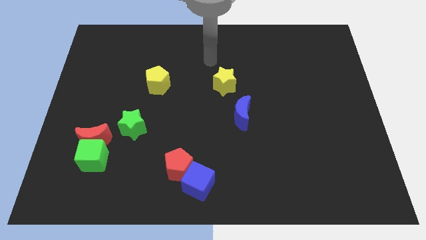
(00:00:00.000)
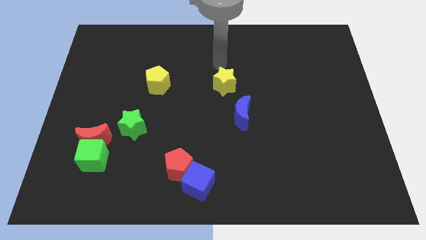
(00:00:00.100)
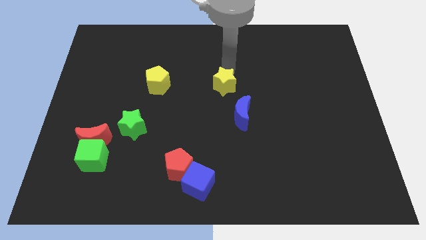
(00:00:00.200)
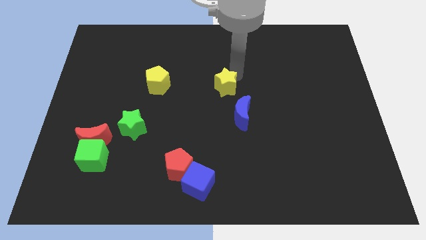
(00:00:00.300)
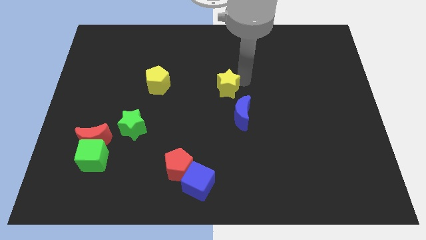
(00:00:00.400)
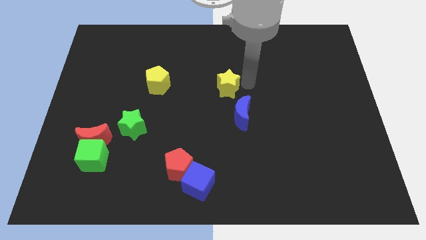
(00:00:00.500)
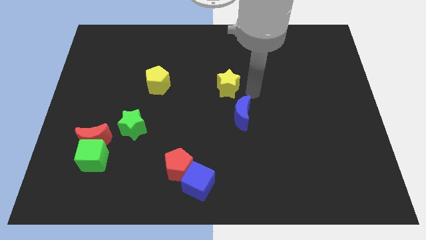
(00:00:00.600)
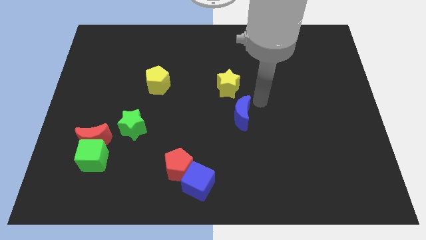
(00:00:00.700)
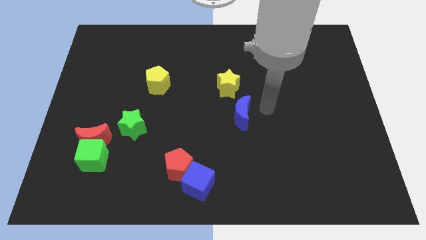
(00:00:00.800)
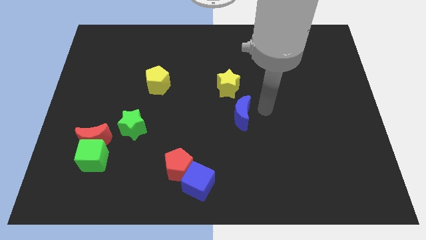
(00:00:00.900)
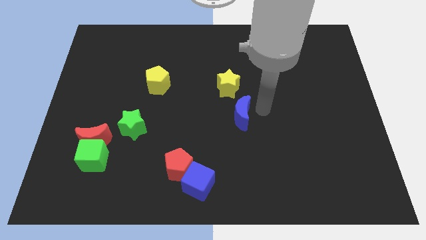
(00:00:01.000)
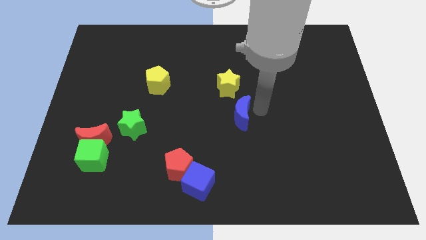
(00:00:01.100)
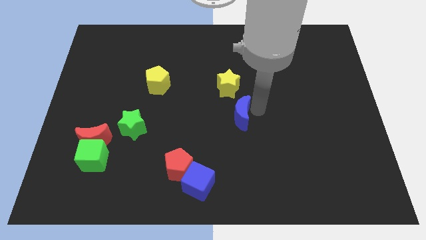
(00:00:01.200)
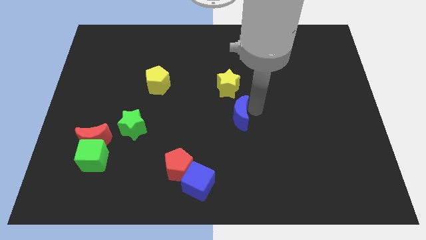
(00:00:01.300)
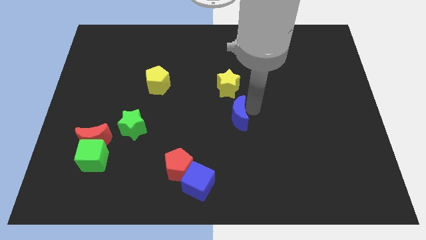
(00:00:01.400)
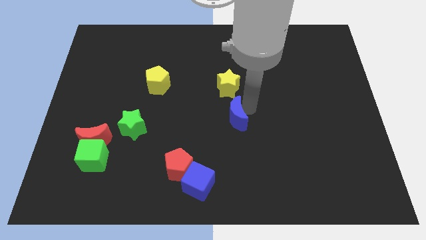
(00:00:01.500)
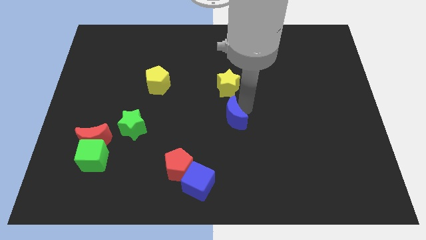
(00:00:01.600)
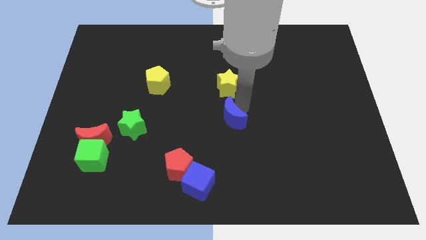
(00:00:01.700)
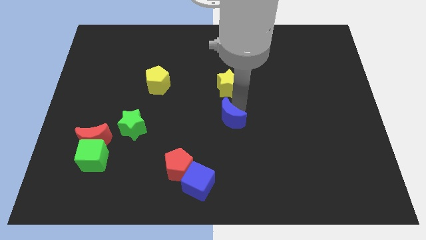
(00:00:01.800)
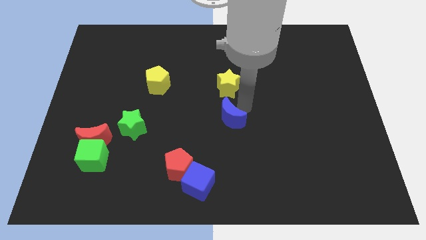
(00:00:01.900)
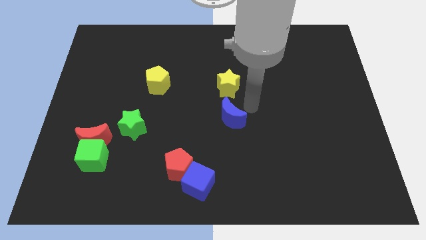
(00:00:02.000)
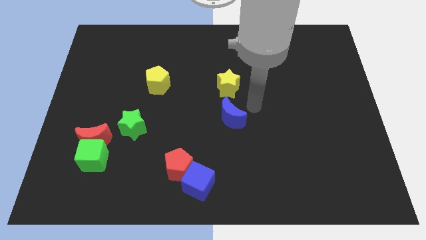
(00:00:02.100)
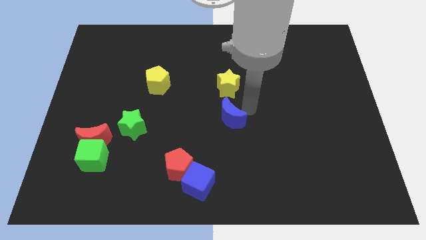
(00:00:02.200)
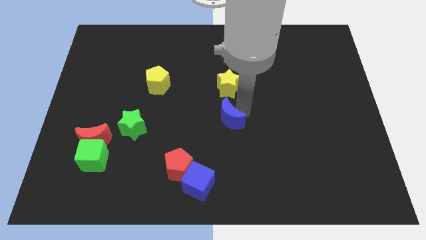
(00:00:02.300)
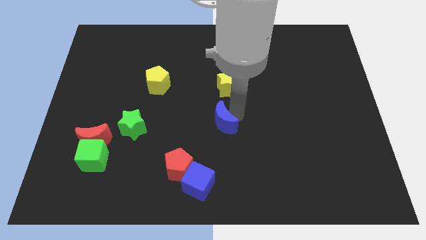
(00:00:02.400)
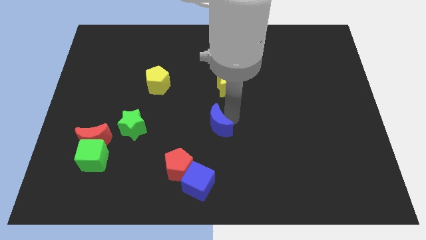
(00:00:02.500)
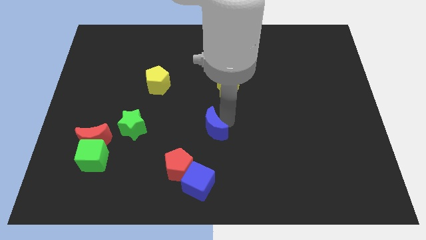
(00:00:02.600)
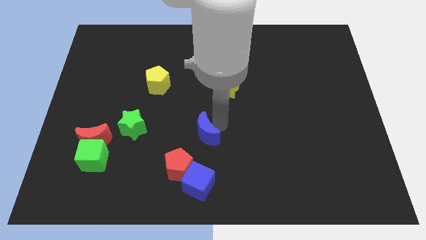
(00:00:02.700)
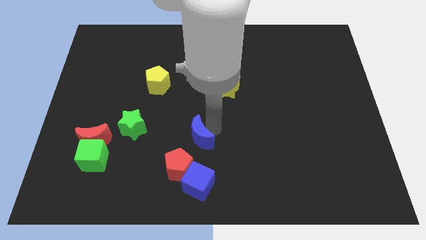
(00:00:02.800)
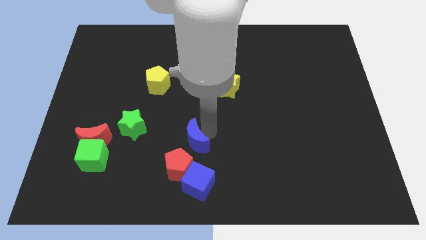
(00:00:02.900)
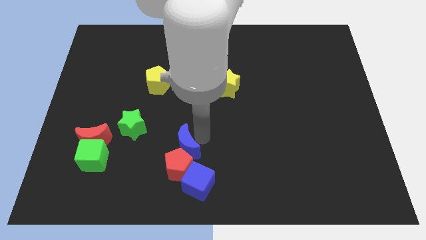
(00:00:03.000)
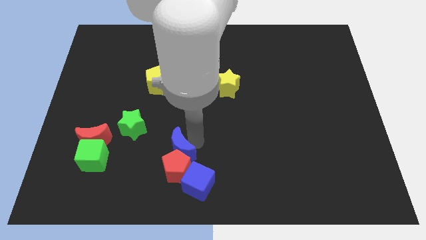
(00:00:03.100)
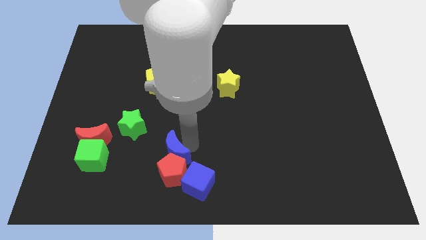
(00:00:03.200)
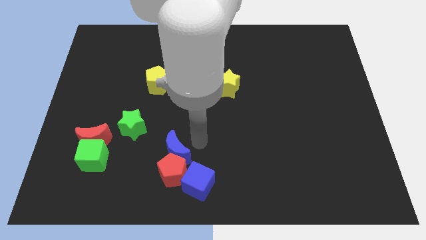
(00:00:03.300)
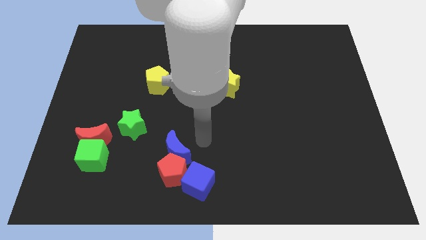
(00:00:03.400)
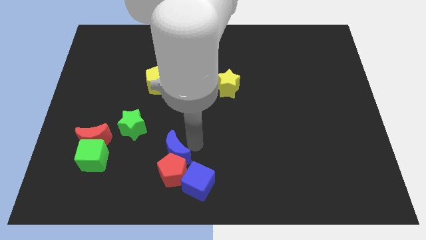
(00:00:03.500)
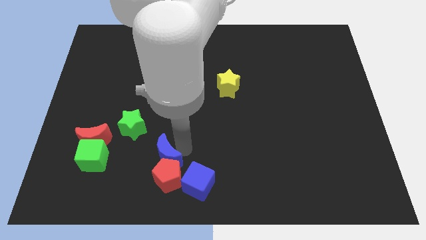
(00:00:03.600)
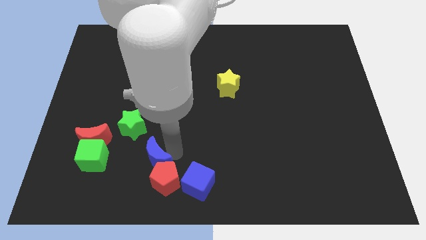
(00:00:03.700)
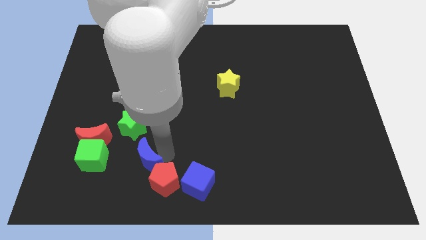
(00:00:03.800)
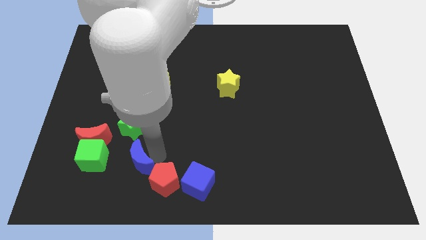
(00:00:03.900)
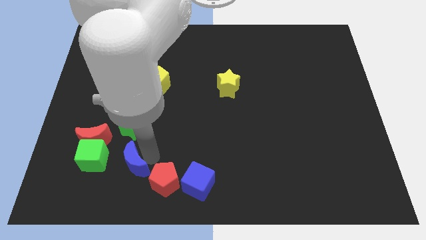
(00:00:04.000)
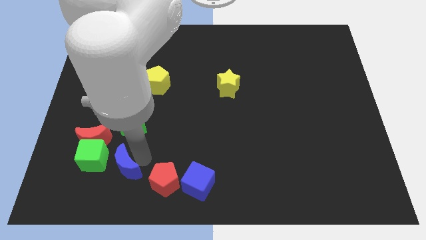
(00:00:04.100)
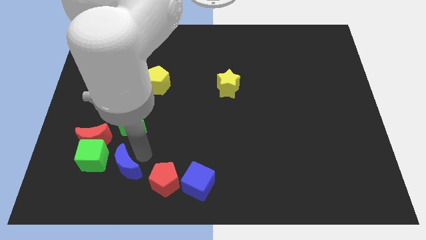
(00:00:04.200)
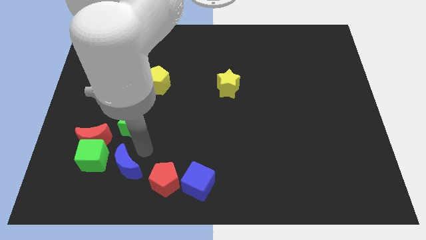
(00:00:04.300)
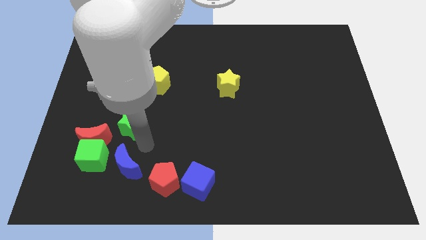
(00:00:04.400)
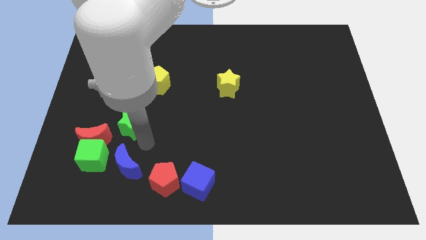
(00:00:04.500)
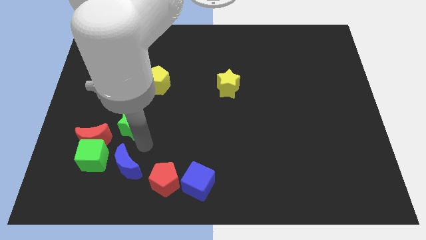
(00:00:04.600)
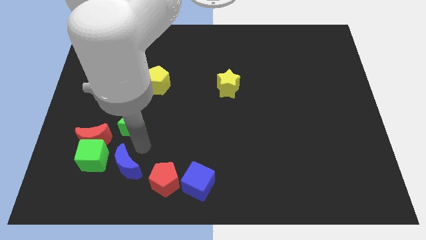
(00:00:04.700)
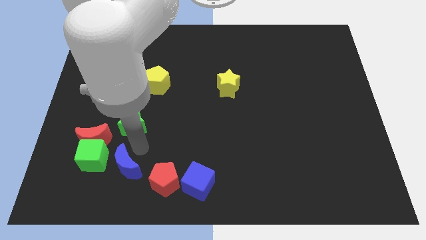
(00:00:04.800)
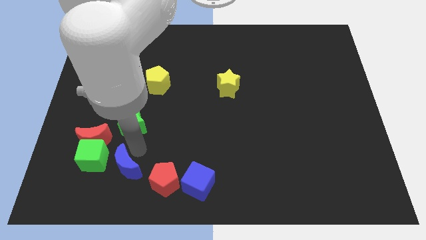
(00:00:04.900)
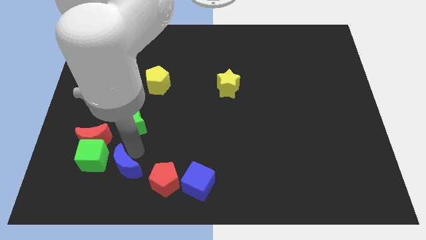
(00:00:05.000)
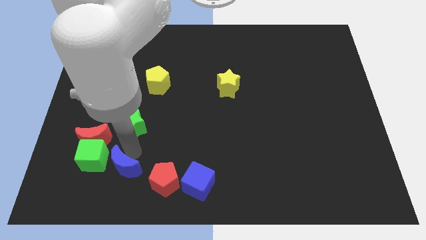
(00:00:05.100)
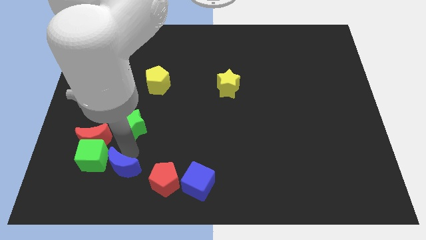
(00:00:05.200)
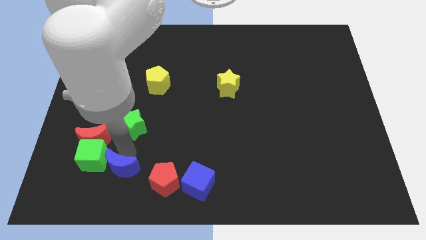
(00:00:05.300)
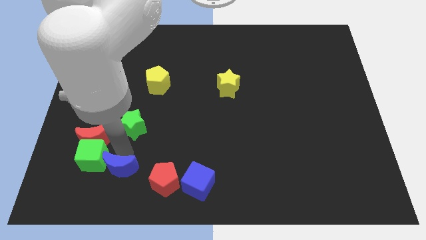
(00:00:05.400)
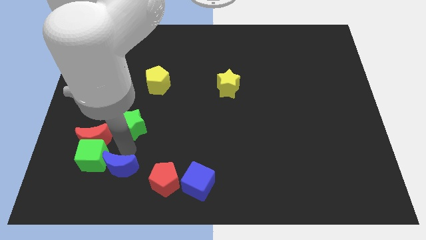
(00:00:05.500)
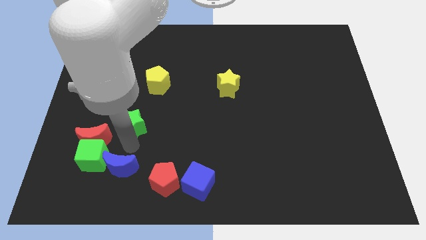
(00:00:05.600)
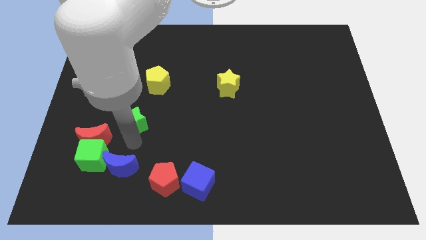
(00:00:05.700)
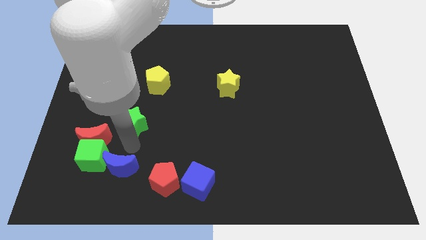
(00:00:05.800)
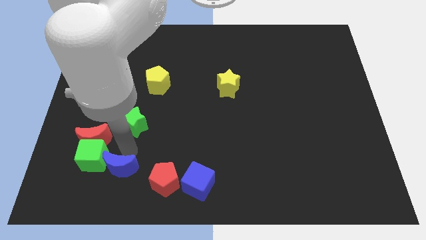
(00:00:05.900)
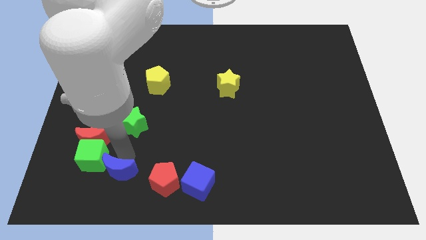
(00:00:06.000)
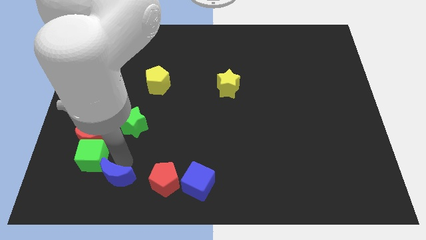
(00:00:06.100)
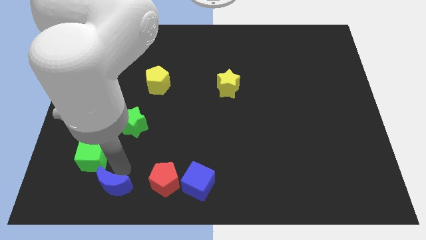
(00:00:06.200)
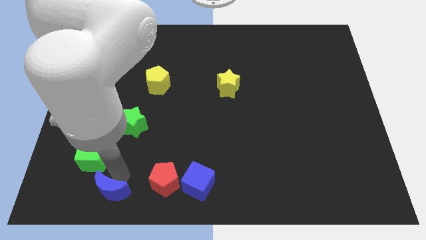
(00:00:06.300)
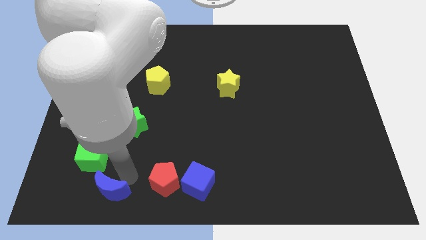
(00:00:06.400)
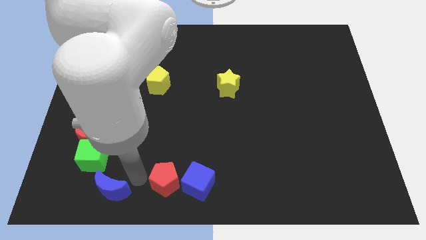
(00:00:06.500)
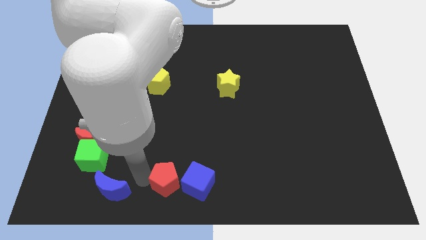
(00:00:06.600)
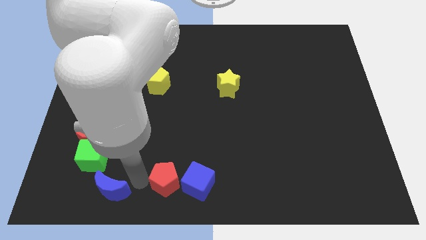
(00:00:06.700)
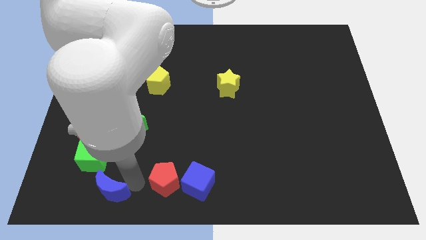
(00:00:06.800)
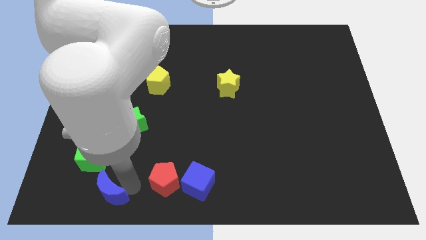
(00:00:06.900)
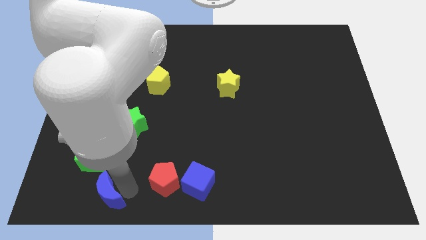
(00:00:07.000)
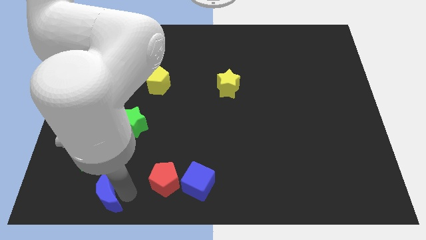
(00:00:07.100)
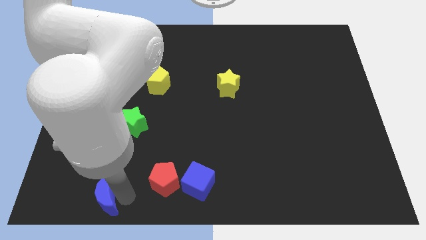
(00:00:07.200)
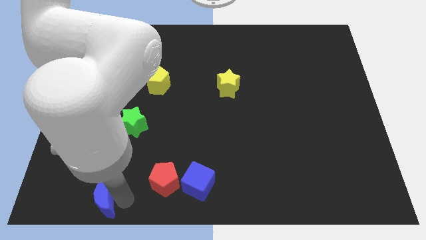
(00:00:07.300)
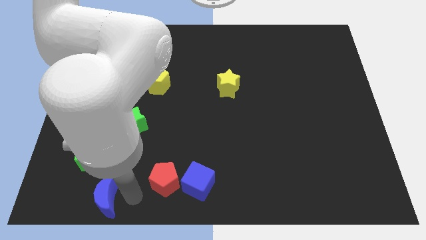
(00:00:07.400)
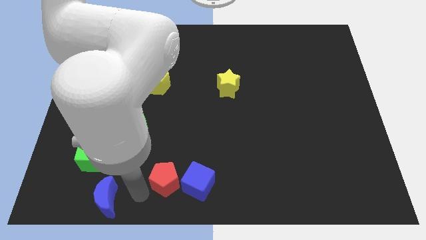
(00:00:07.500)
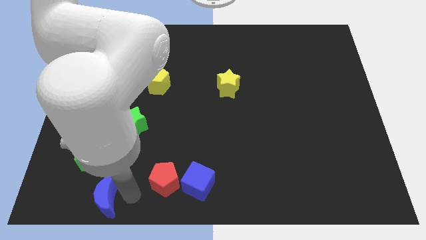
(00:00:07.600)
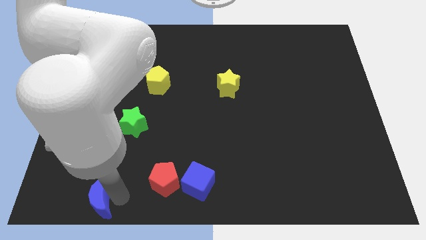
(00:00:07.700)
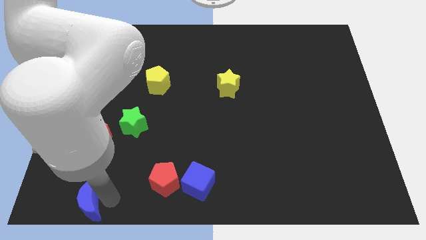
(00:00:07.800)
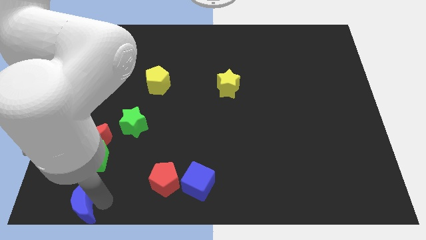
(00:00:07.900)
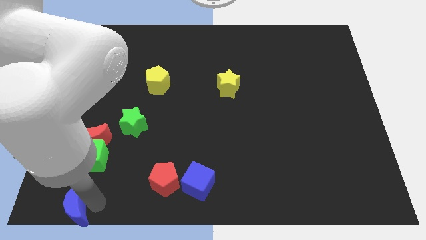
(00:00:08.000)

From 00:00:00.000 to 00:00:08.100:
push the blue moon to the lower left corner
